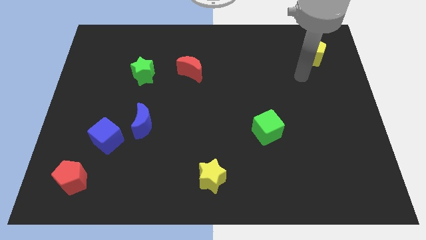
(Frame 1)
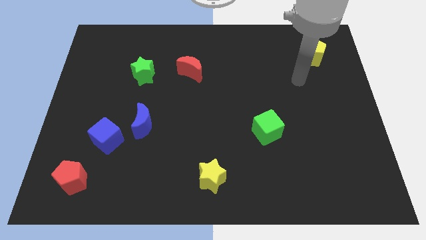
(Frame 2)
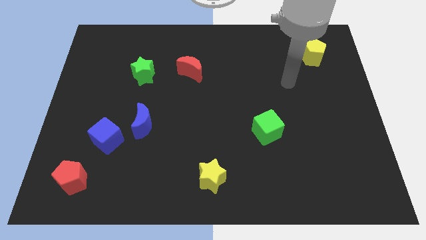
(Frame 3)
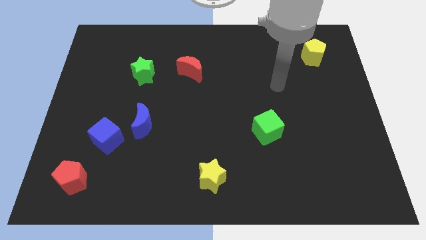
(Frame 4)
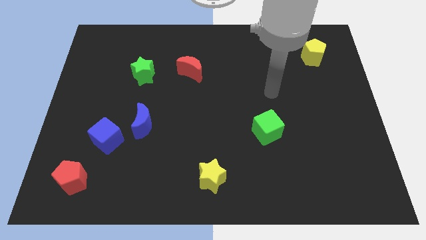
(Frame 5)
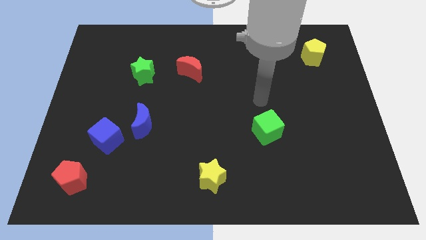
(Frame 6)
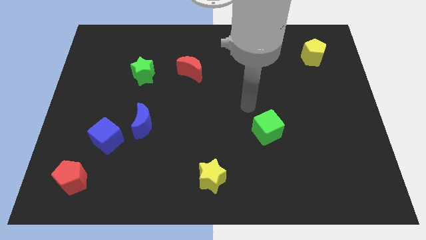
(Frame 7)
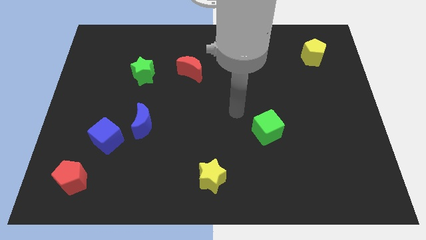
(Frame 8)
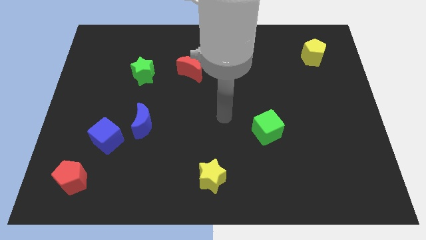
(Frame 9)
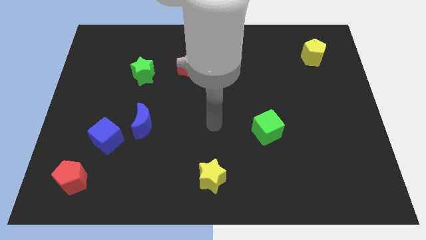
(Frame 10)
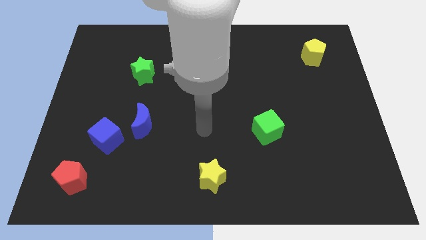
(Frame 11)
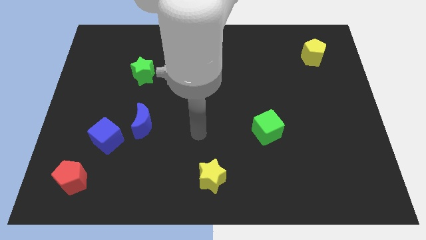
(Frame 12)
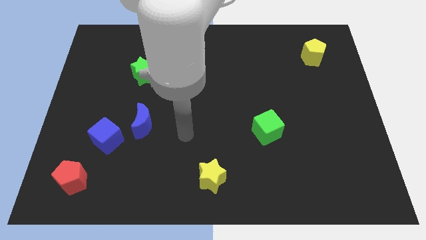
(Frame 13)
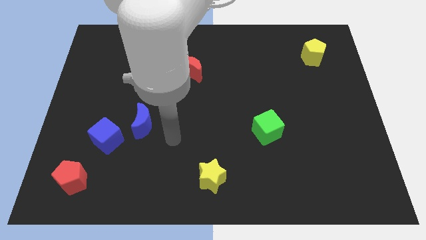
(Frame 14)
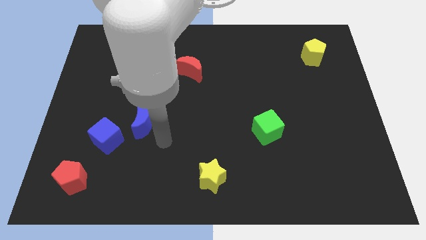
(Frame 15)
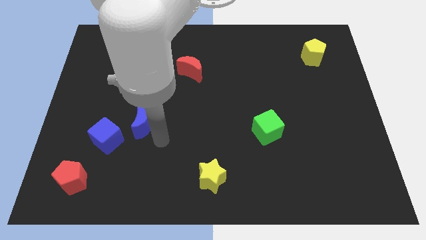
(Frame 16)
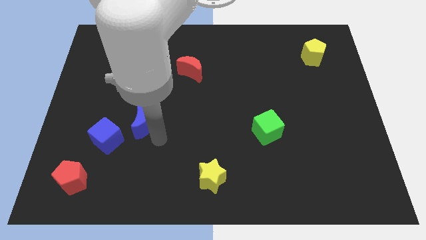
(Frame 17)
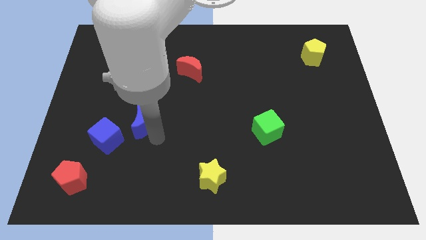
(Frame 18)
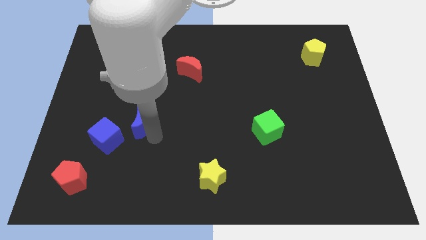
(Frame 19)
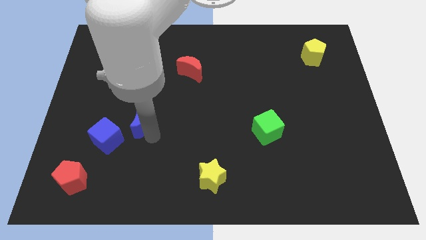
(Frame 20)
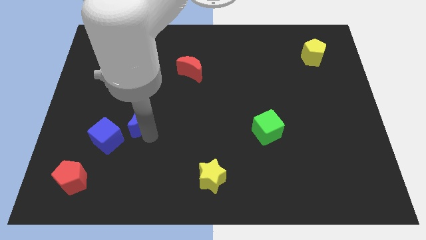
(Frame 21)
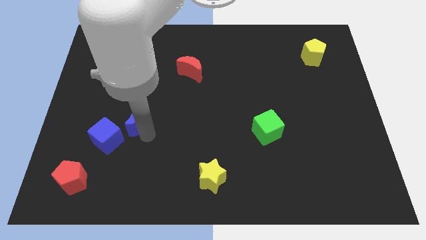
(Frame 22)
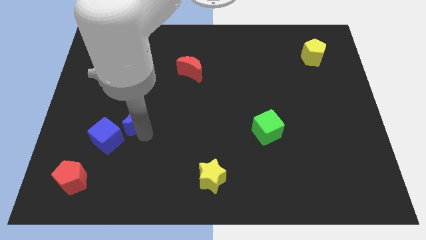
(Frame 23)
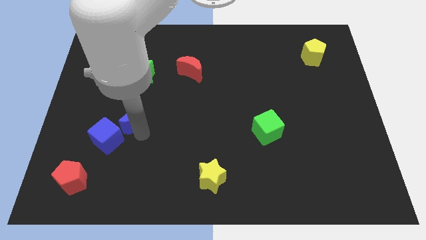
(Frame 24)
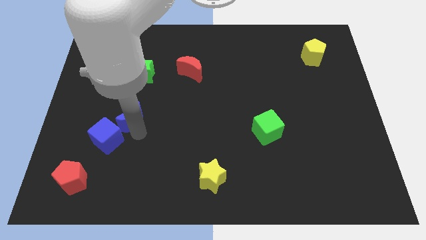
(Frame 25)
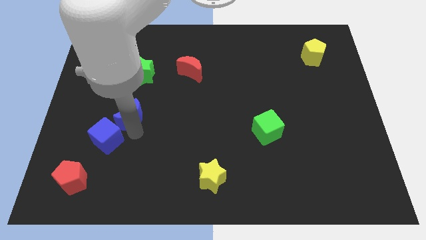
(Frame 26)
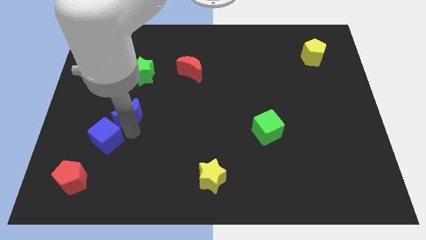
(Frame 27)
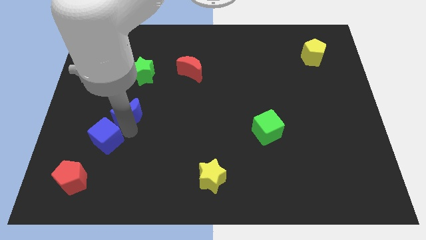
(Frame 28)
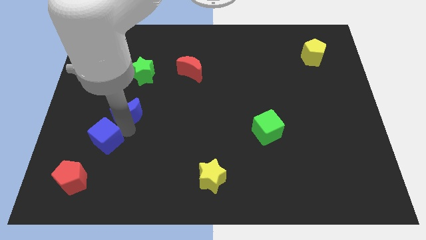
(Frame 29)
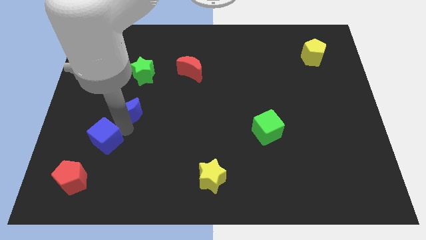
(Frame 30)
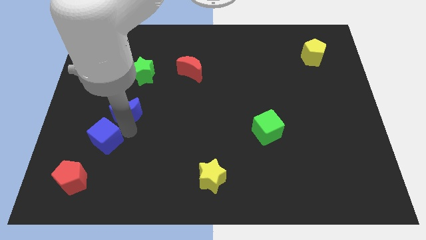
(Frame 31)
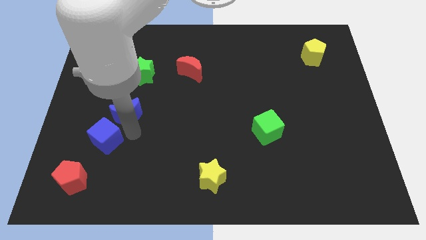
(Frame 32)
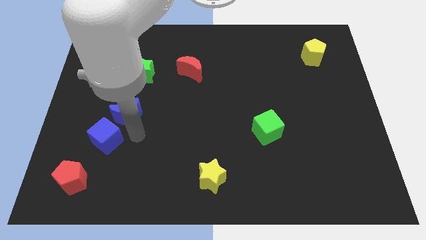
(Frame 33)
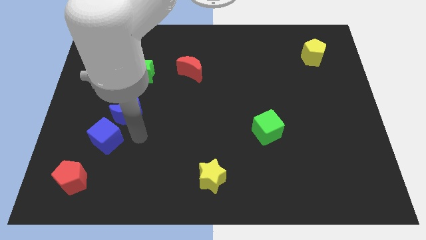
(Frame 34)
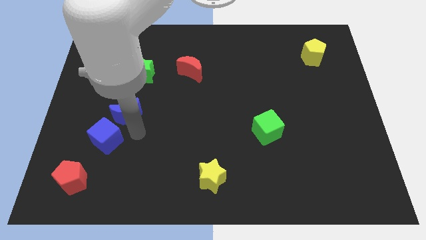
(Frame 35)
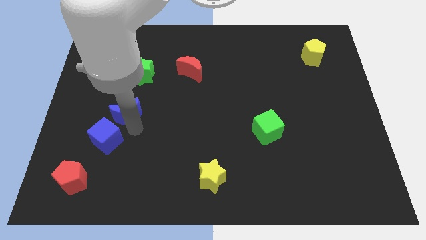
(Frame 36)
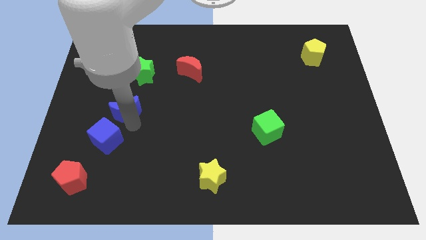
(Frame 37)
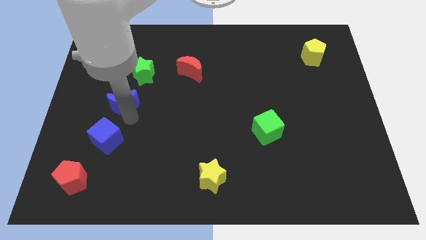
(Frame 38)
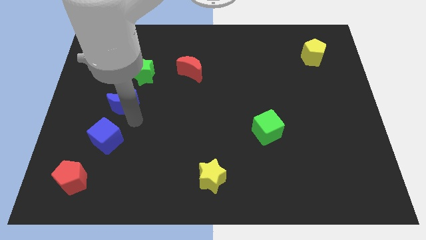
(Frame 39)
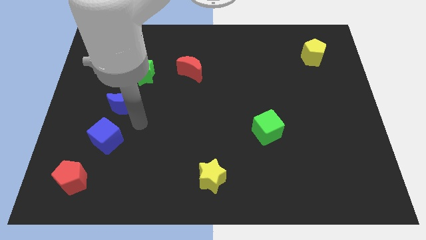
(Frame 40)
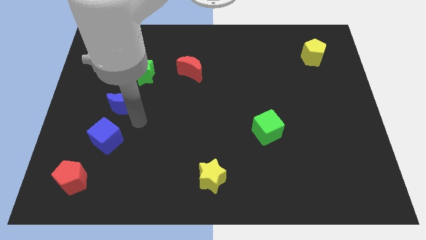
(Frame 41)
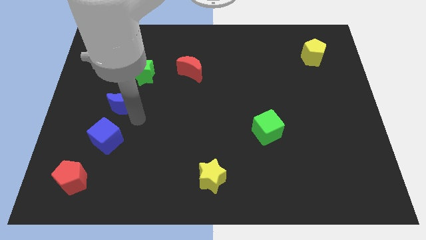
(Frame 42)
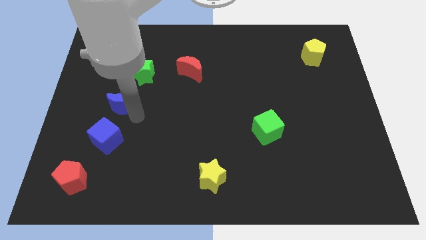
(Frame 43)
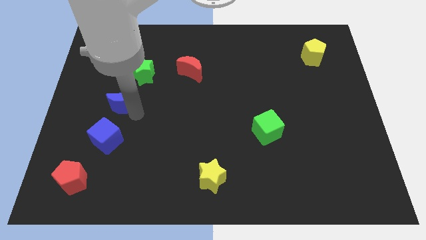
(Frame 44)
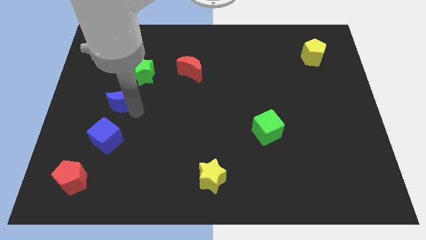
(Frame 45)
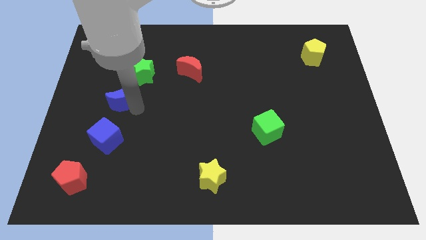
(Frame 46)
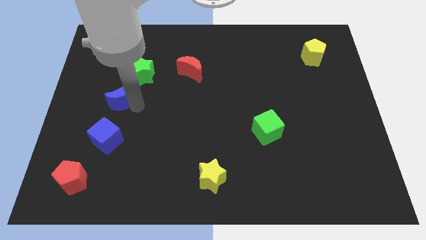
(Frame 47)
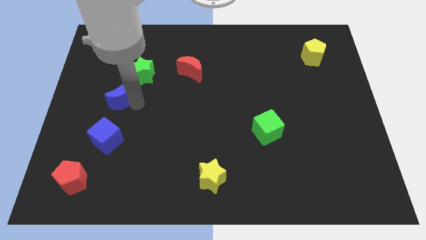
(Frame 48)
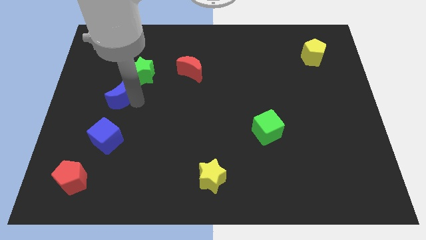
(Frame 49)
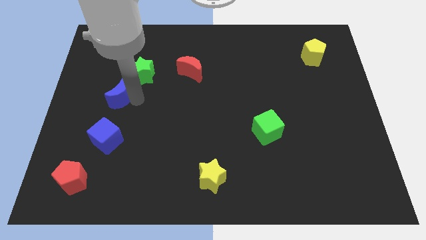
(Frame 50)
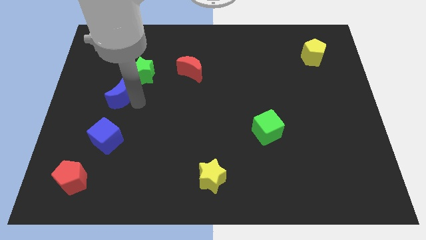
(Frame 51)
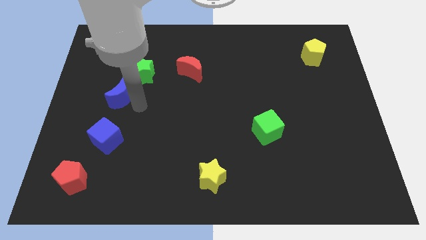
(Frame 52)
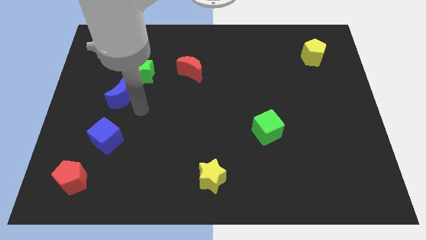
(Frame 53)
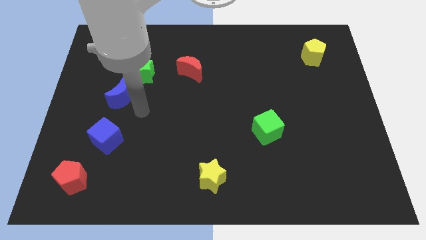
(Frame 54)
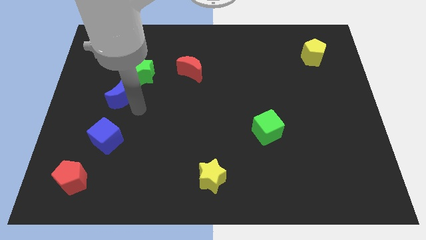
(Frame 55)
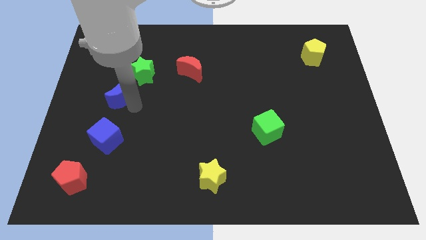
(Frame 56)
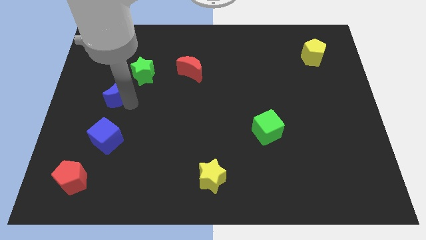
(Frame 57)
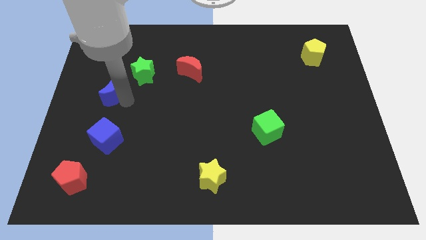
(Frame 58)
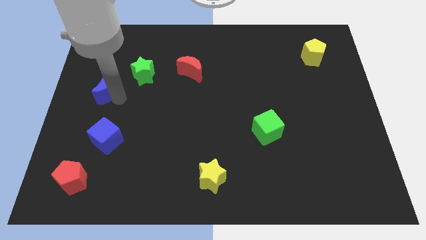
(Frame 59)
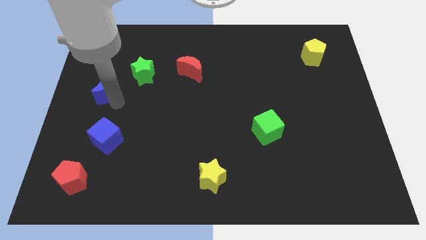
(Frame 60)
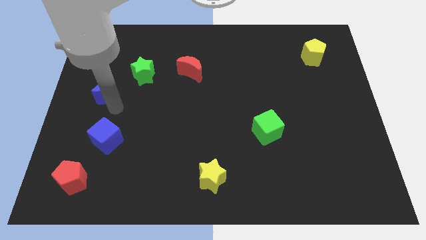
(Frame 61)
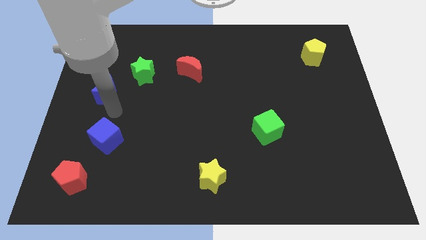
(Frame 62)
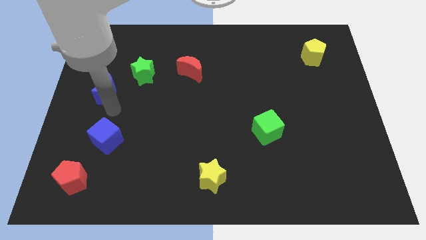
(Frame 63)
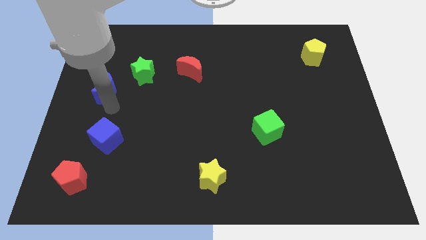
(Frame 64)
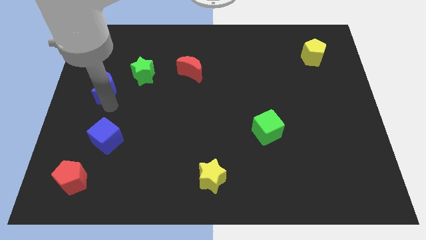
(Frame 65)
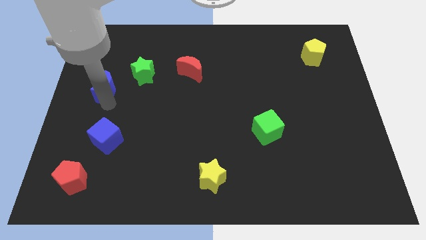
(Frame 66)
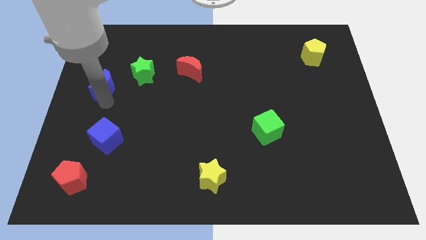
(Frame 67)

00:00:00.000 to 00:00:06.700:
slide the blue moon to the left side of the green star
